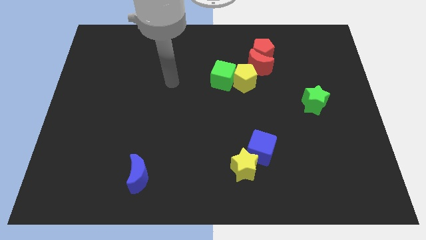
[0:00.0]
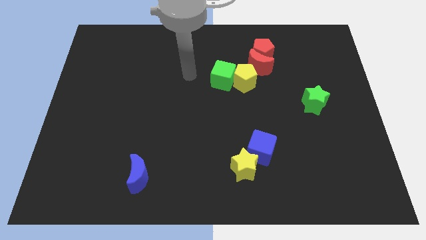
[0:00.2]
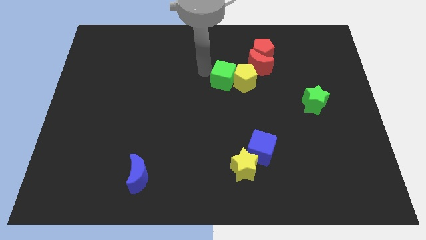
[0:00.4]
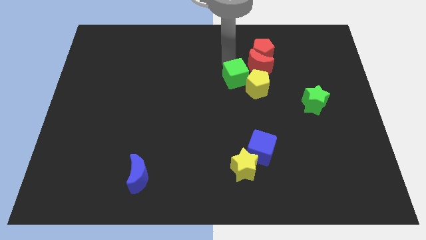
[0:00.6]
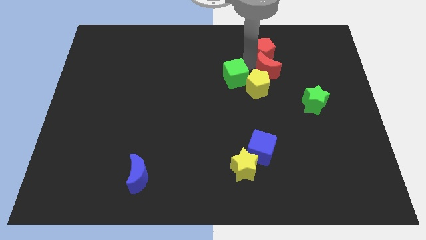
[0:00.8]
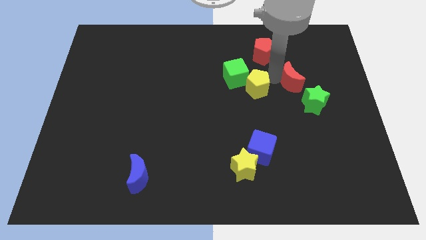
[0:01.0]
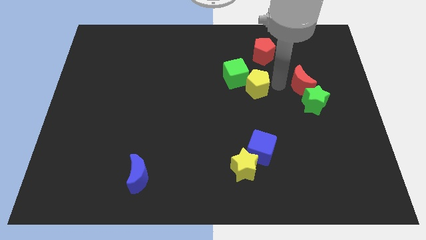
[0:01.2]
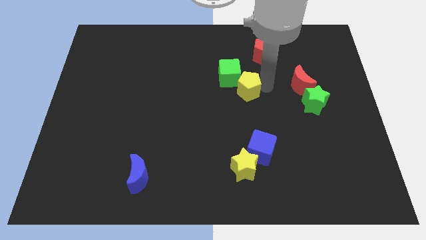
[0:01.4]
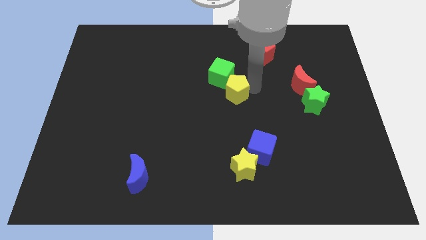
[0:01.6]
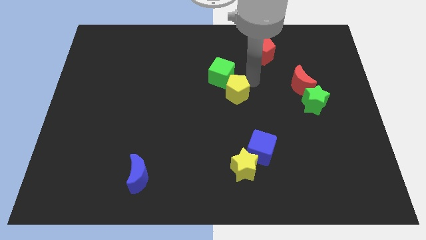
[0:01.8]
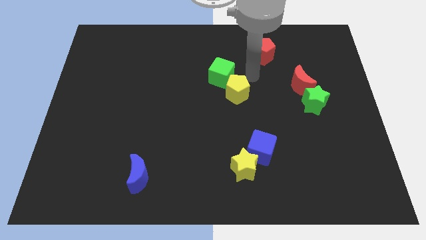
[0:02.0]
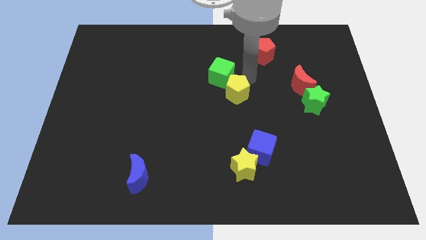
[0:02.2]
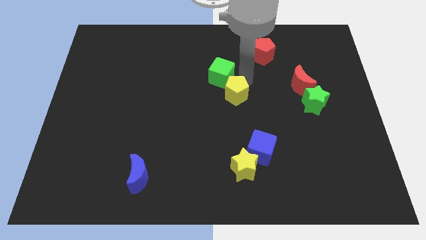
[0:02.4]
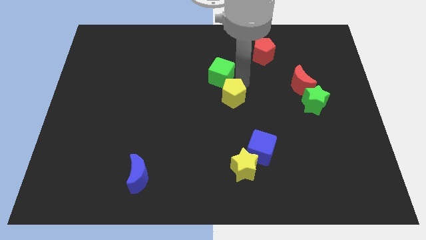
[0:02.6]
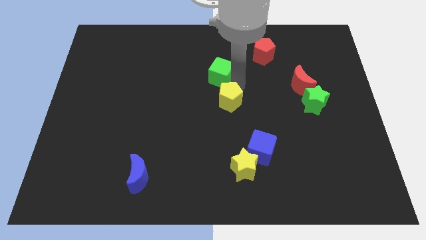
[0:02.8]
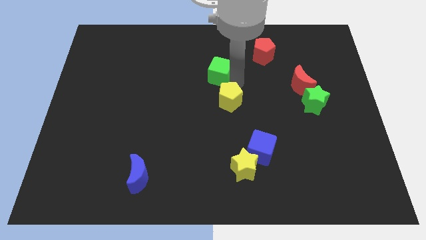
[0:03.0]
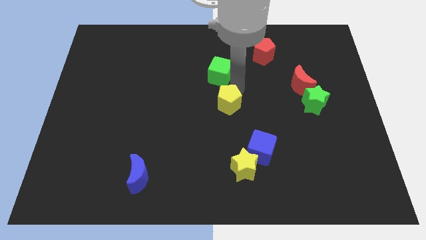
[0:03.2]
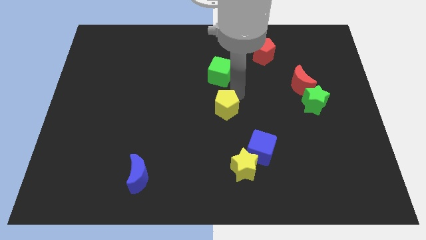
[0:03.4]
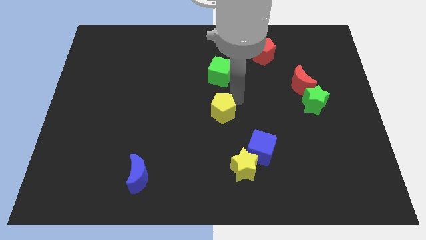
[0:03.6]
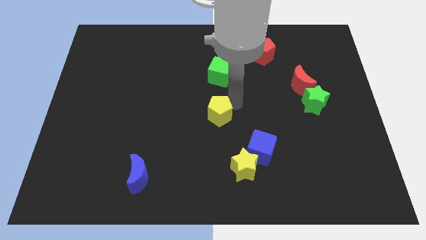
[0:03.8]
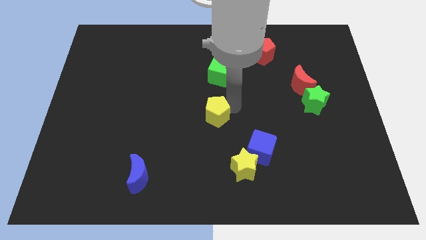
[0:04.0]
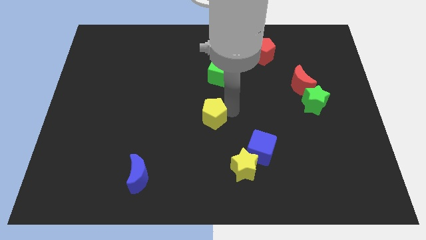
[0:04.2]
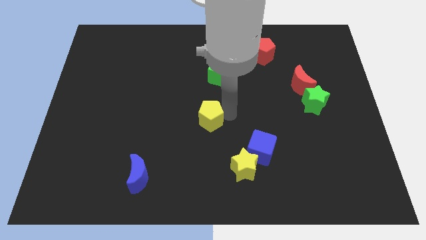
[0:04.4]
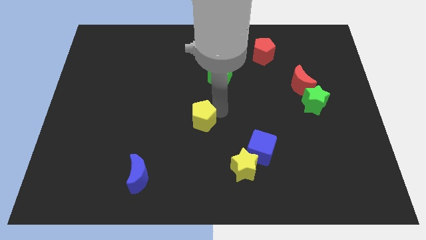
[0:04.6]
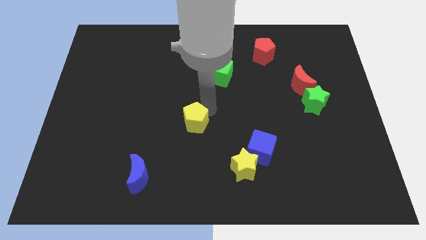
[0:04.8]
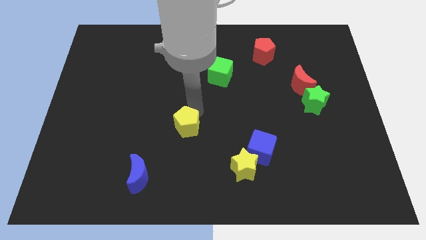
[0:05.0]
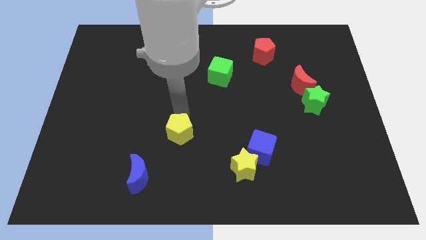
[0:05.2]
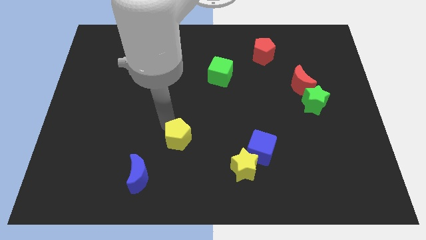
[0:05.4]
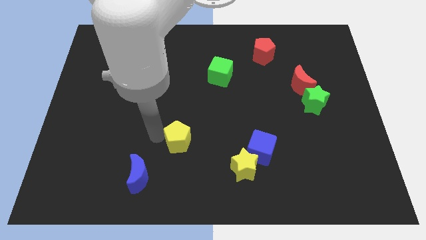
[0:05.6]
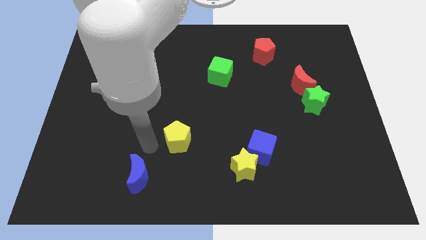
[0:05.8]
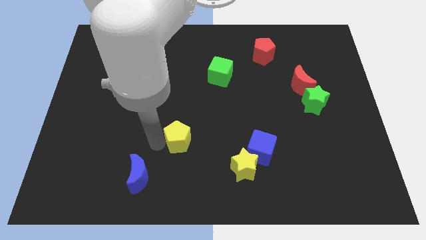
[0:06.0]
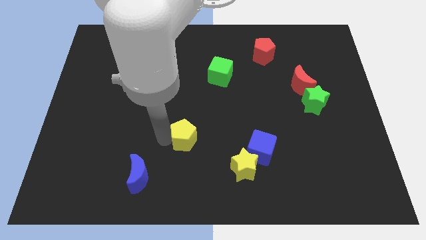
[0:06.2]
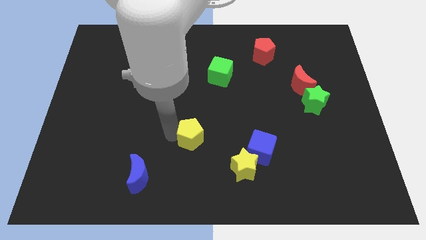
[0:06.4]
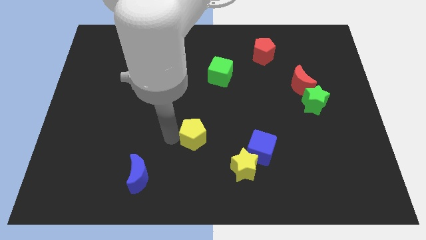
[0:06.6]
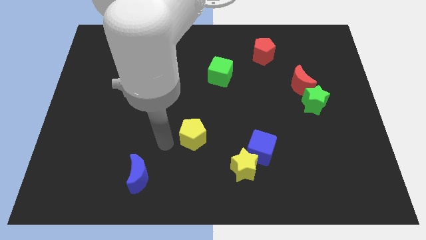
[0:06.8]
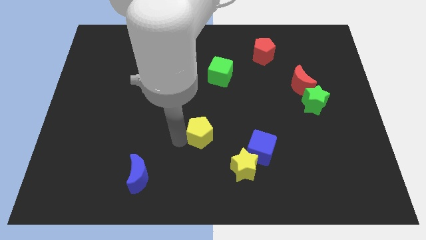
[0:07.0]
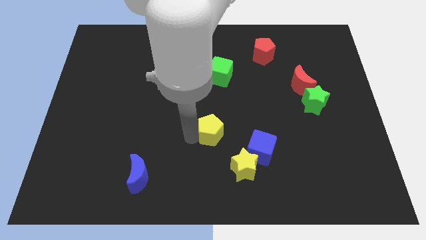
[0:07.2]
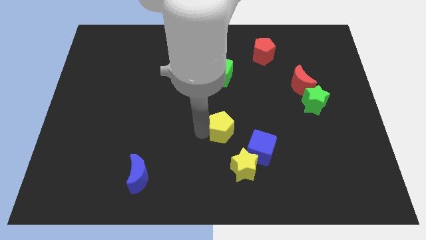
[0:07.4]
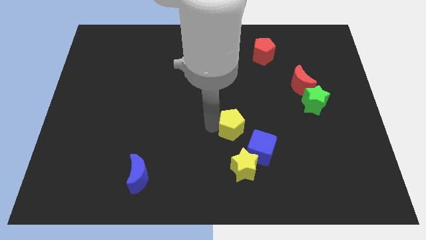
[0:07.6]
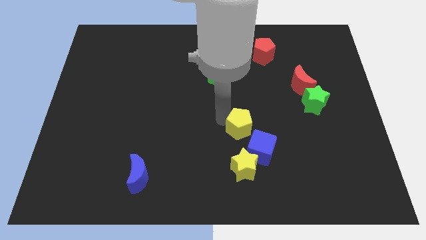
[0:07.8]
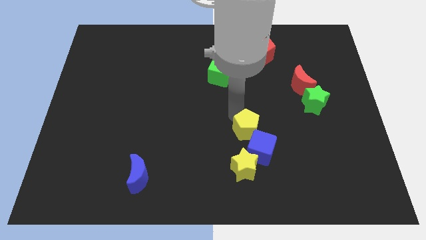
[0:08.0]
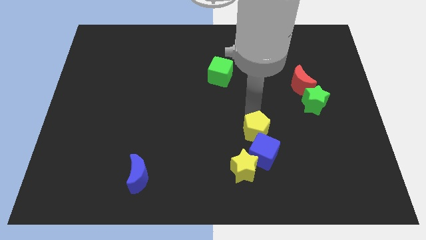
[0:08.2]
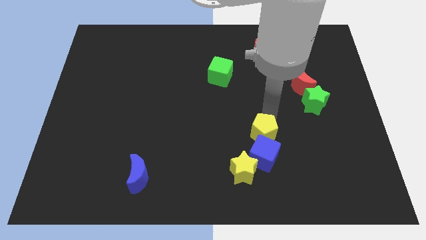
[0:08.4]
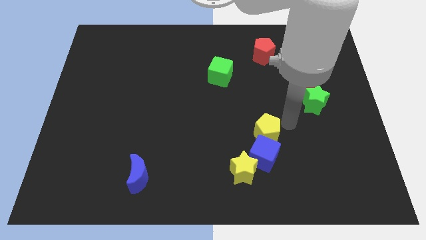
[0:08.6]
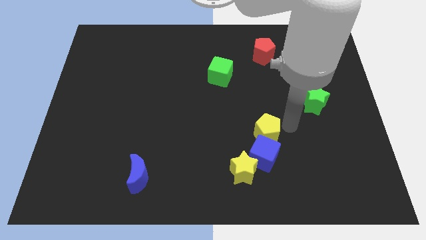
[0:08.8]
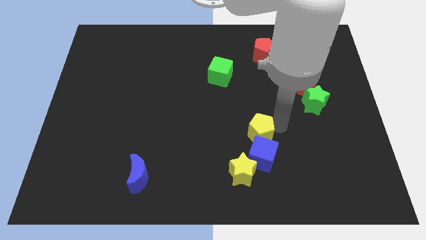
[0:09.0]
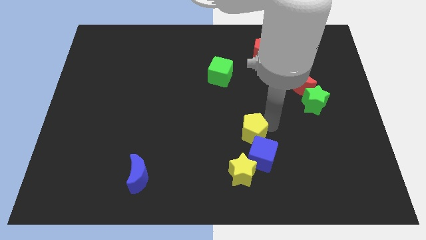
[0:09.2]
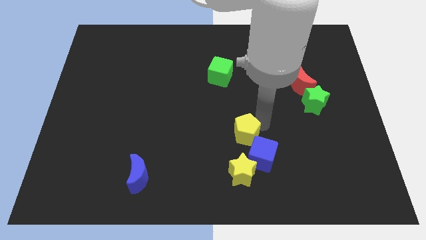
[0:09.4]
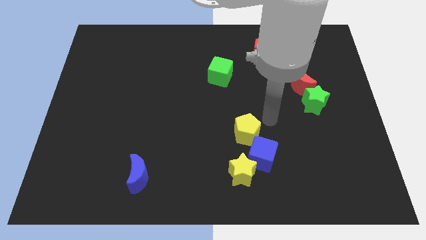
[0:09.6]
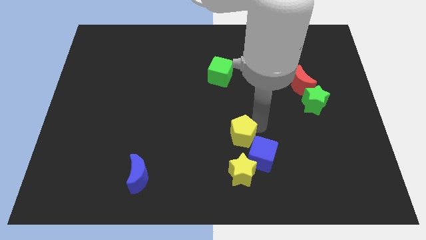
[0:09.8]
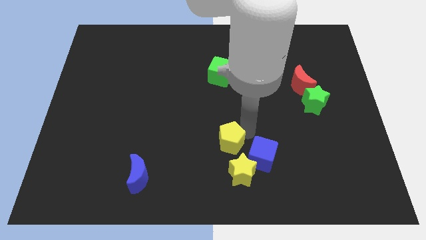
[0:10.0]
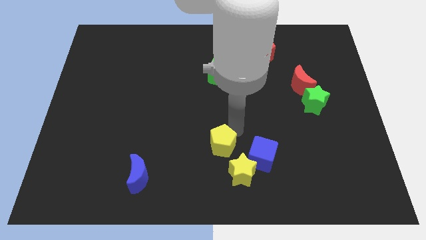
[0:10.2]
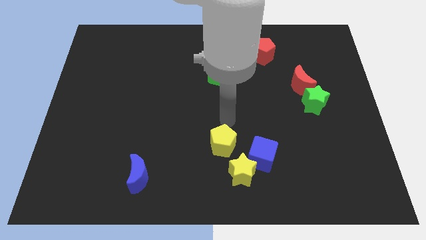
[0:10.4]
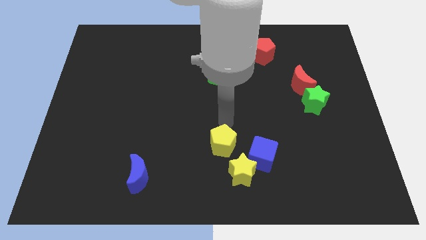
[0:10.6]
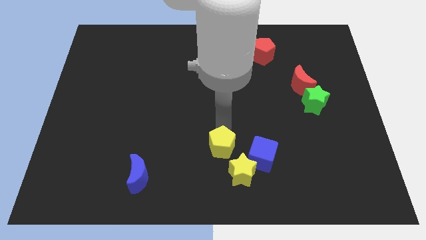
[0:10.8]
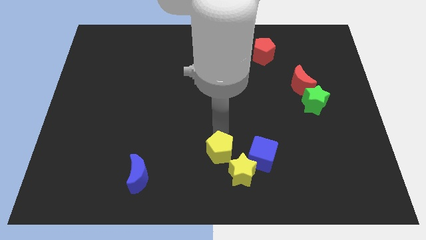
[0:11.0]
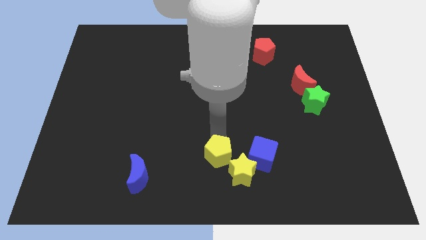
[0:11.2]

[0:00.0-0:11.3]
slide the yellow pentagon to the bottom

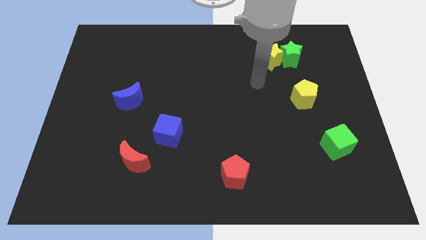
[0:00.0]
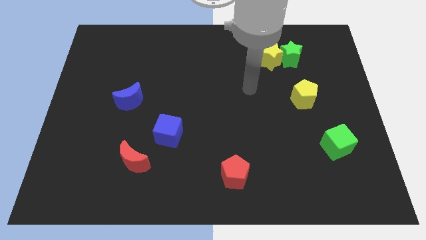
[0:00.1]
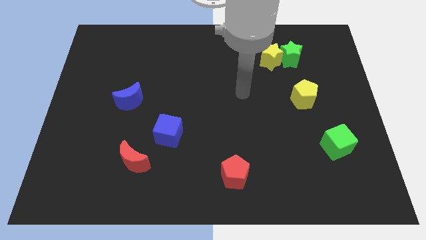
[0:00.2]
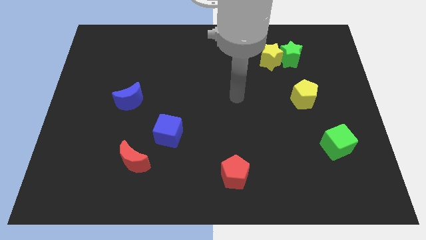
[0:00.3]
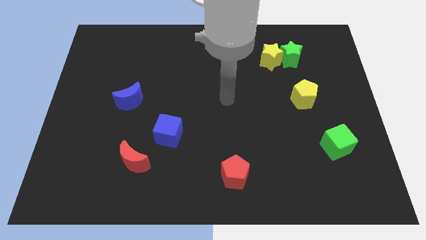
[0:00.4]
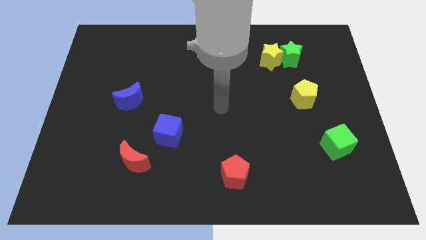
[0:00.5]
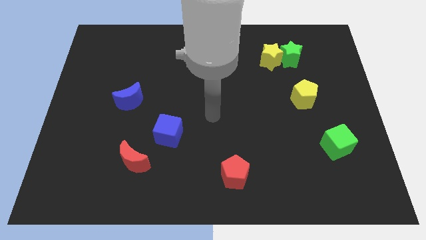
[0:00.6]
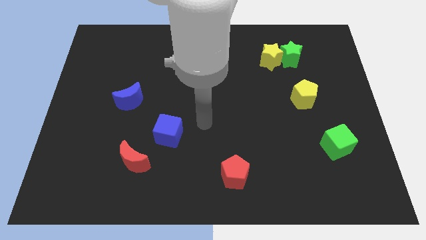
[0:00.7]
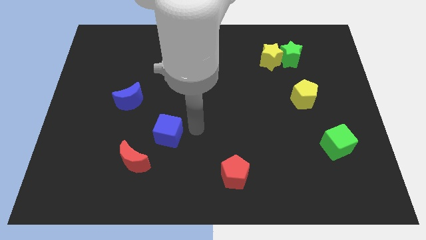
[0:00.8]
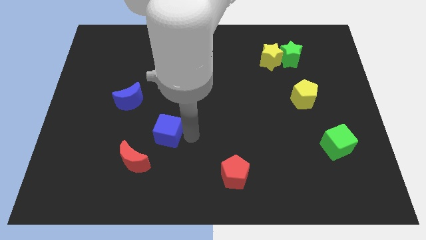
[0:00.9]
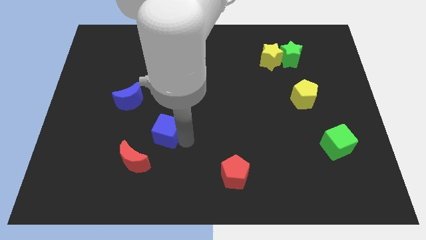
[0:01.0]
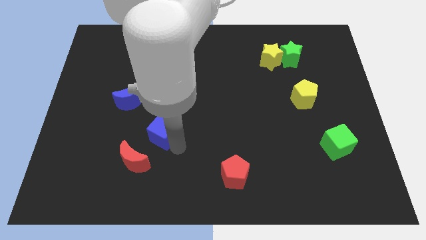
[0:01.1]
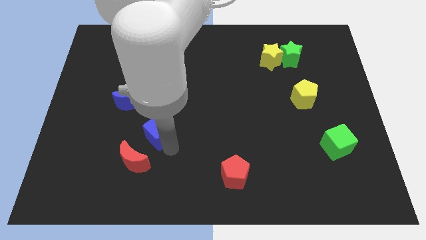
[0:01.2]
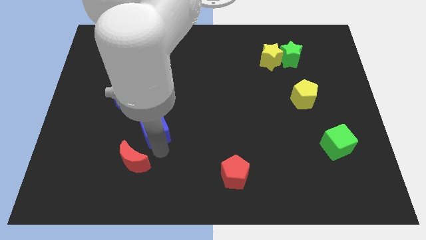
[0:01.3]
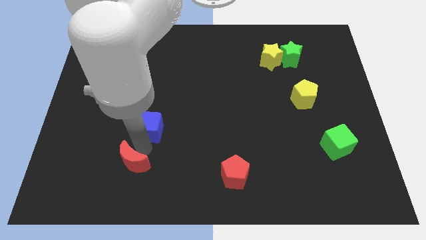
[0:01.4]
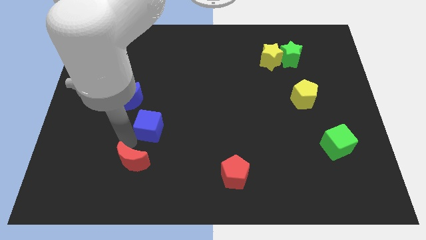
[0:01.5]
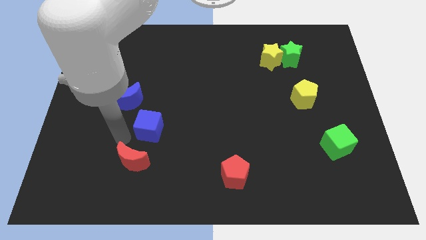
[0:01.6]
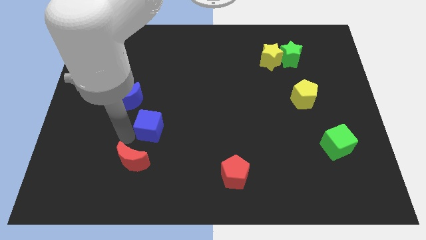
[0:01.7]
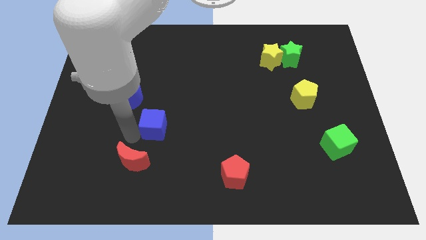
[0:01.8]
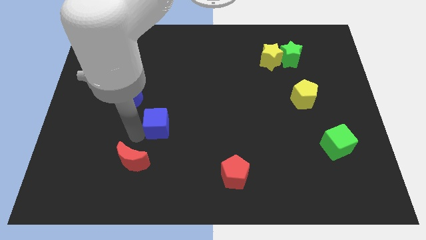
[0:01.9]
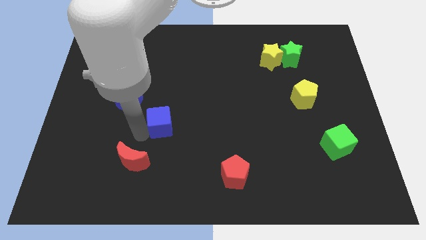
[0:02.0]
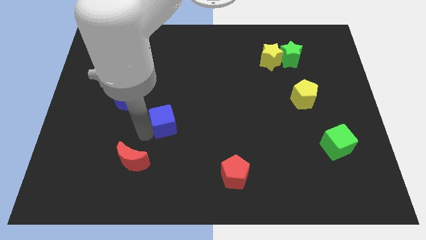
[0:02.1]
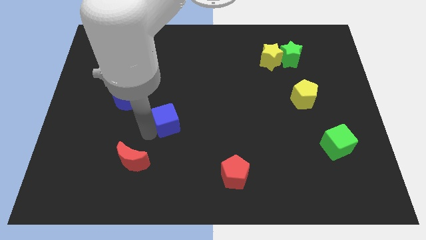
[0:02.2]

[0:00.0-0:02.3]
slide the blue cube to the middle
